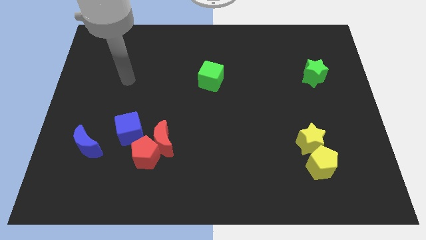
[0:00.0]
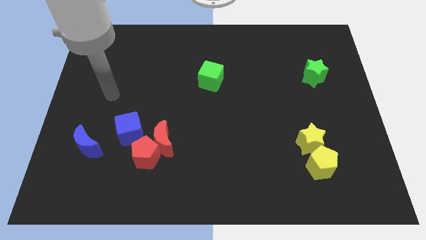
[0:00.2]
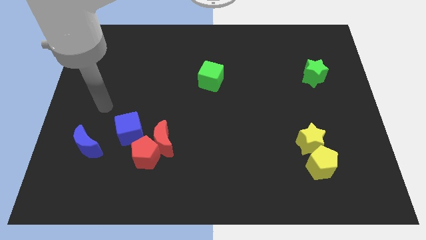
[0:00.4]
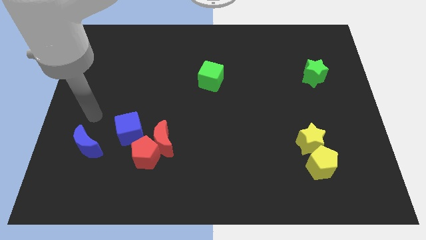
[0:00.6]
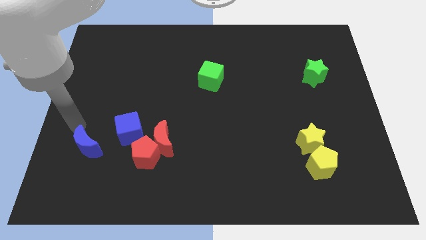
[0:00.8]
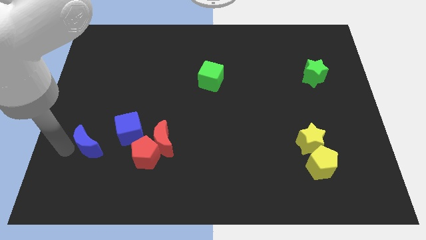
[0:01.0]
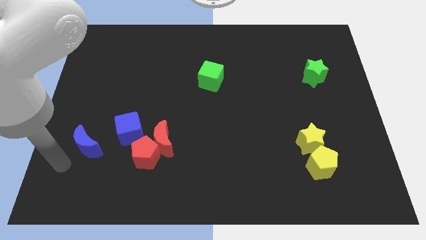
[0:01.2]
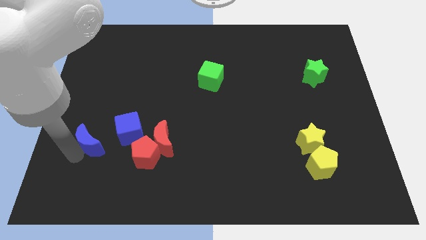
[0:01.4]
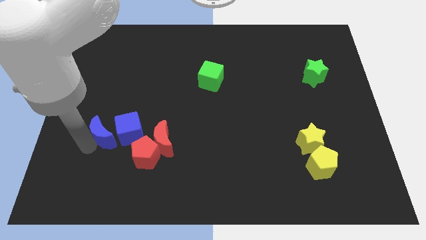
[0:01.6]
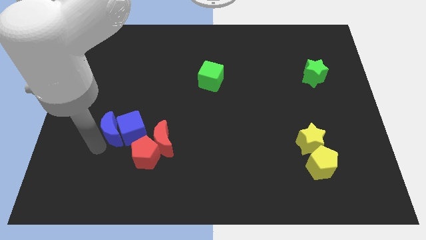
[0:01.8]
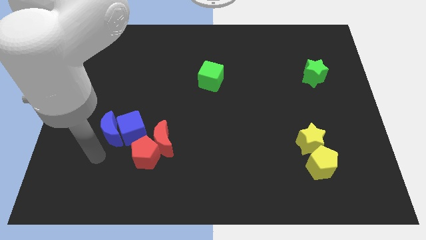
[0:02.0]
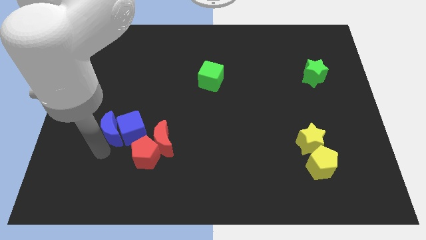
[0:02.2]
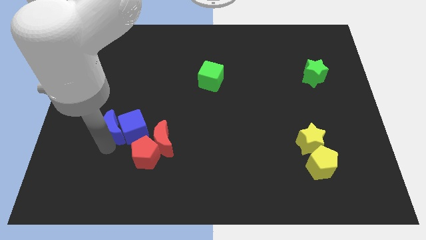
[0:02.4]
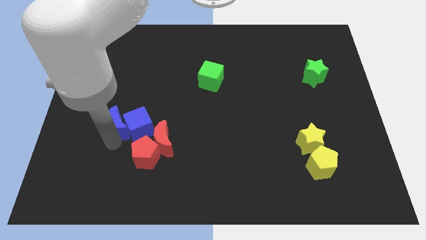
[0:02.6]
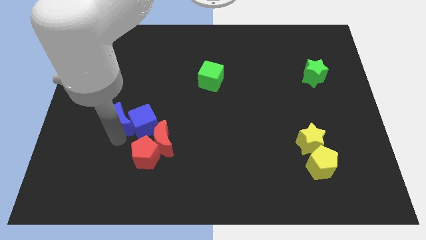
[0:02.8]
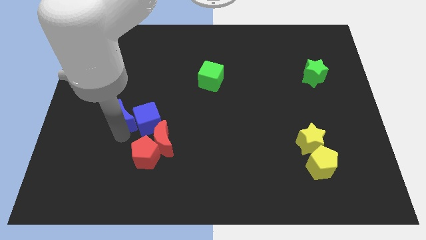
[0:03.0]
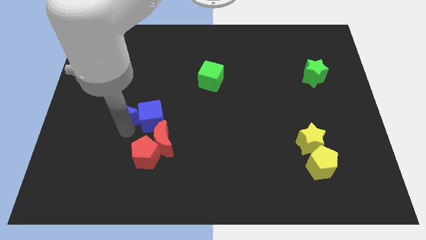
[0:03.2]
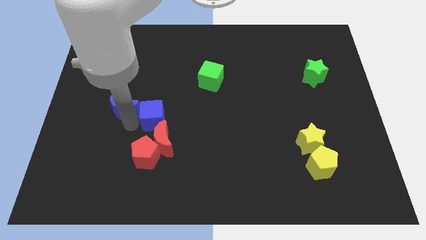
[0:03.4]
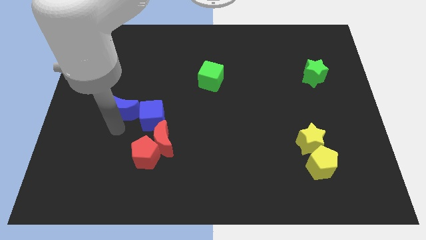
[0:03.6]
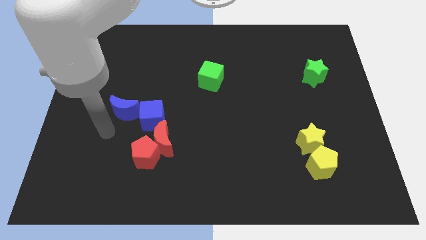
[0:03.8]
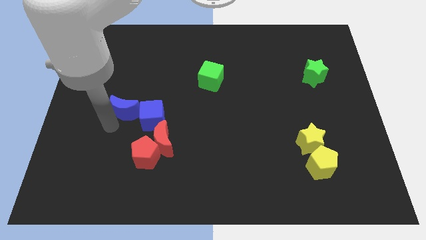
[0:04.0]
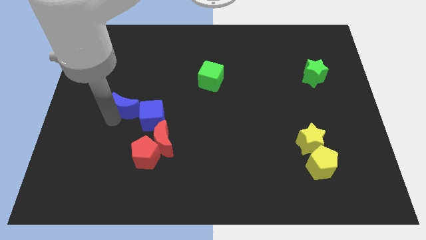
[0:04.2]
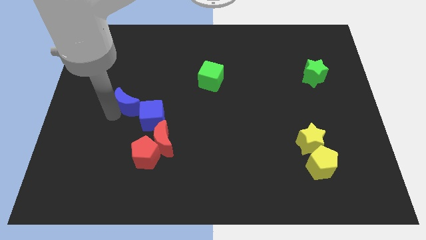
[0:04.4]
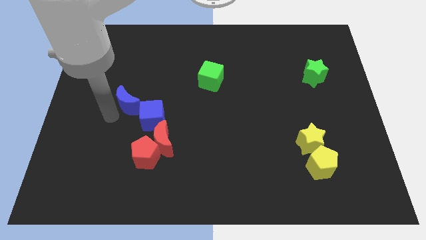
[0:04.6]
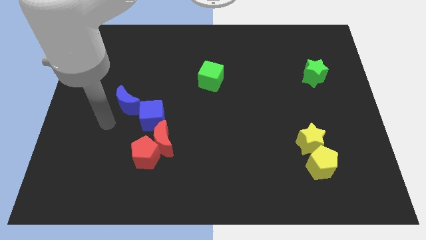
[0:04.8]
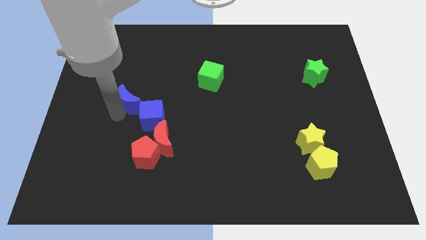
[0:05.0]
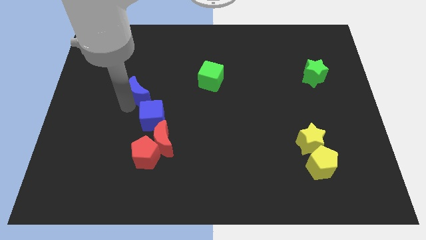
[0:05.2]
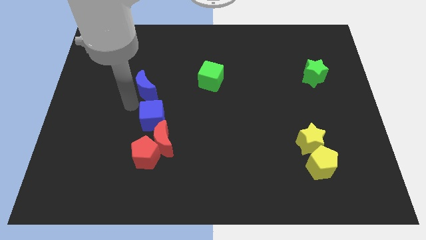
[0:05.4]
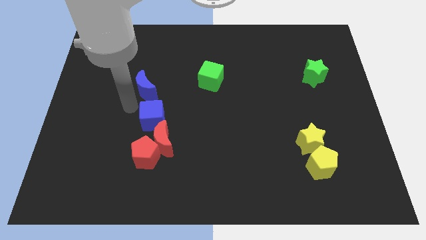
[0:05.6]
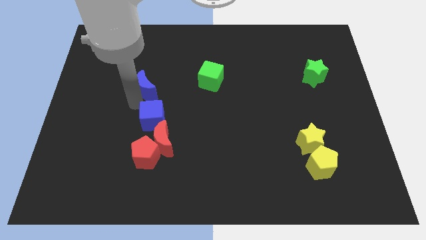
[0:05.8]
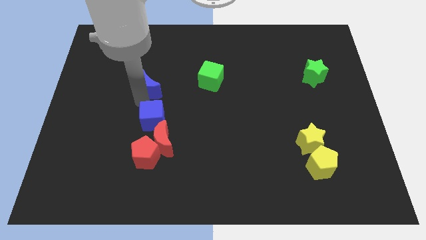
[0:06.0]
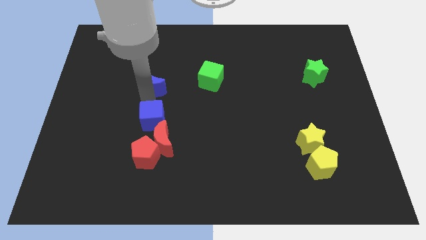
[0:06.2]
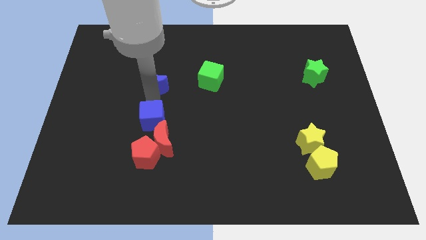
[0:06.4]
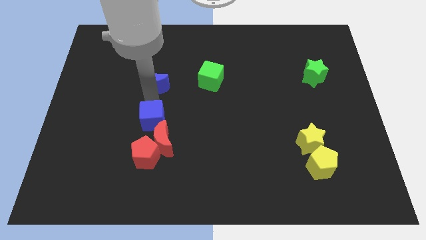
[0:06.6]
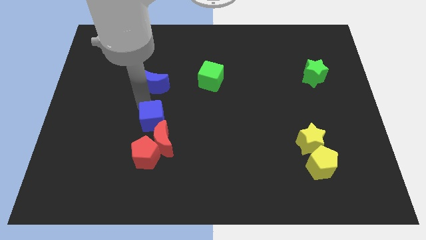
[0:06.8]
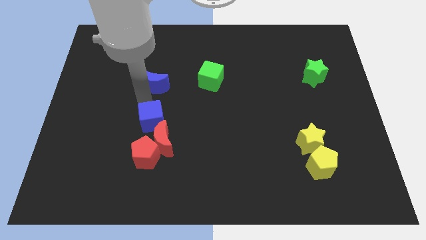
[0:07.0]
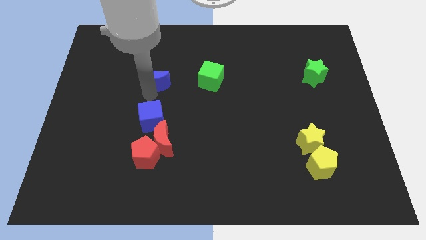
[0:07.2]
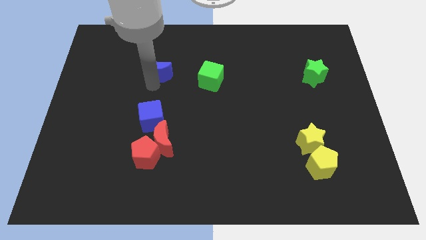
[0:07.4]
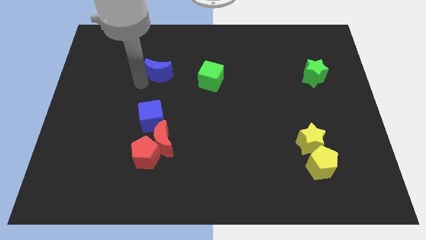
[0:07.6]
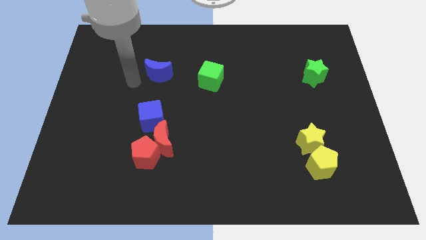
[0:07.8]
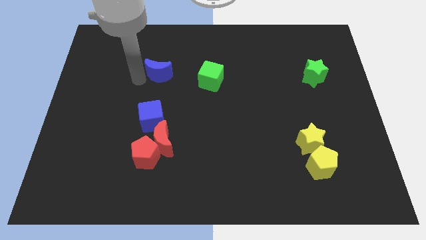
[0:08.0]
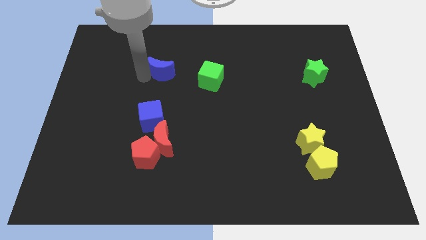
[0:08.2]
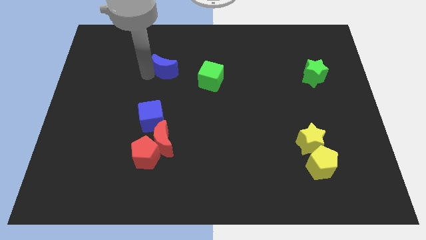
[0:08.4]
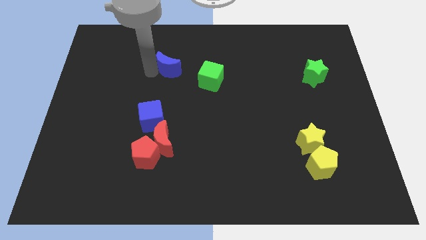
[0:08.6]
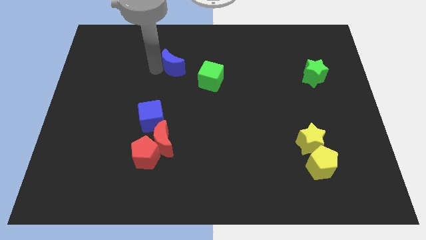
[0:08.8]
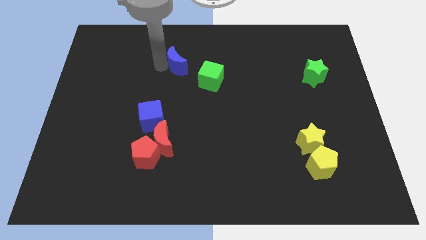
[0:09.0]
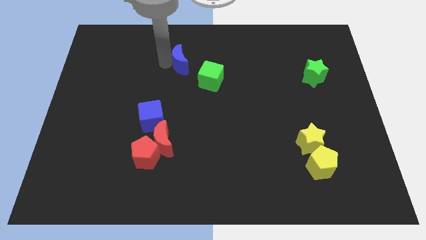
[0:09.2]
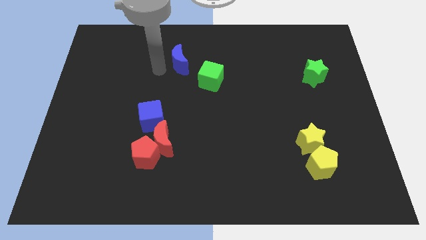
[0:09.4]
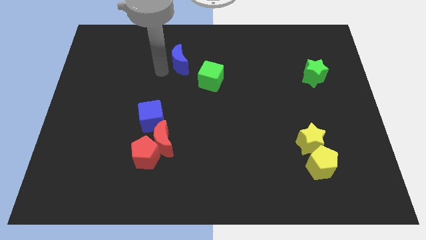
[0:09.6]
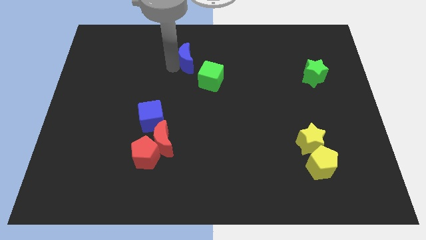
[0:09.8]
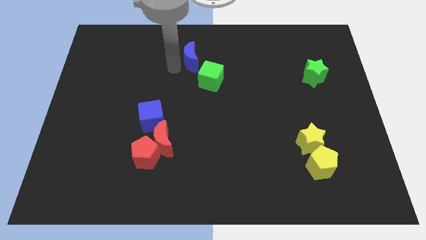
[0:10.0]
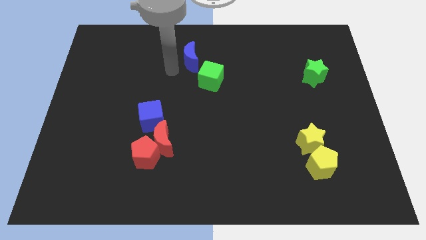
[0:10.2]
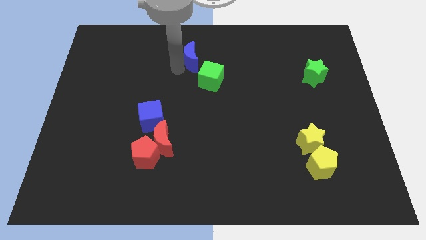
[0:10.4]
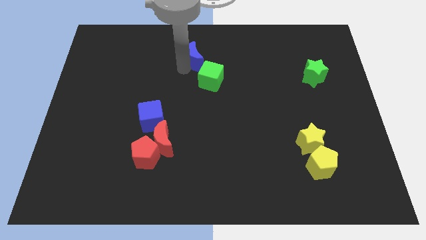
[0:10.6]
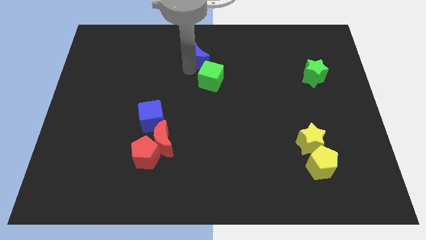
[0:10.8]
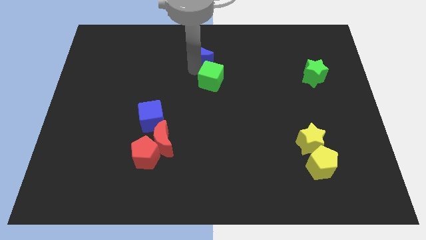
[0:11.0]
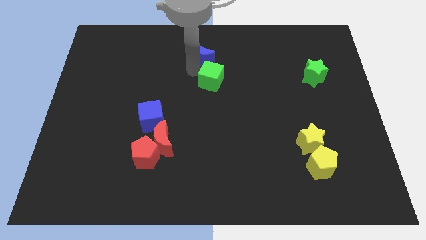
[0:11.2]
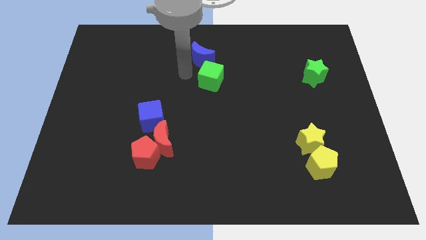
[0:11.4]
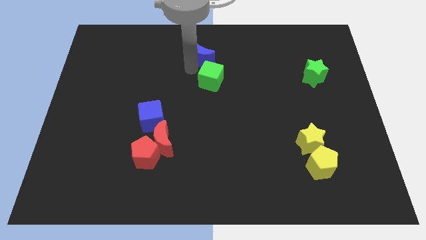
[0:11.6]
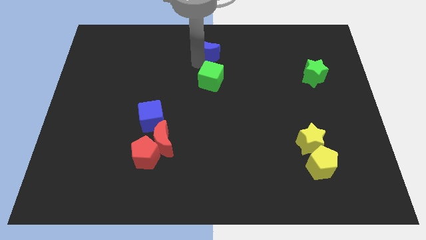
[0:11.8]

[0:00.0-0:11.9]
push the blue moon to the top
